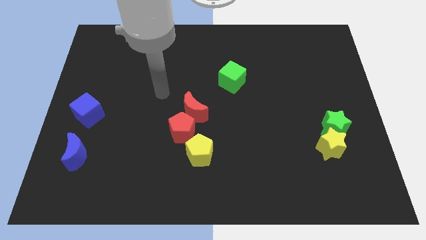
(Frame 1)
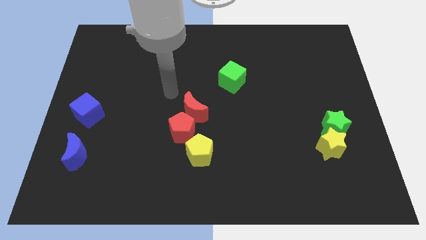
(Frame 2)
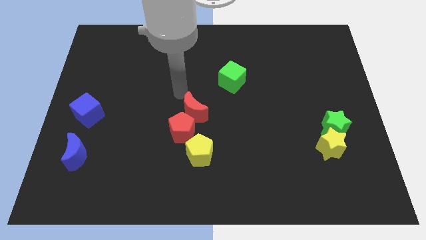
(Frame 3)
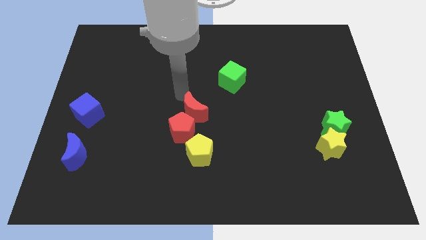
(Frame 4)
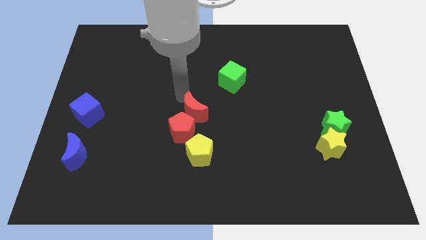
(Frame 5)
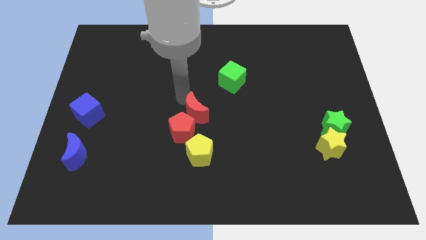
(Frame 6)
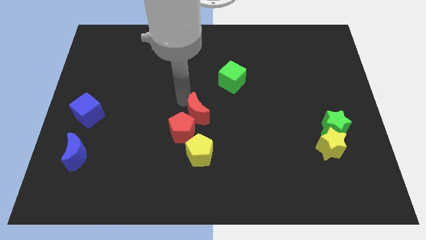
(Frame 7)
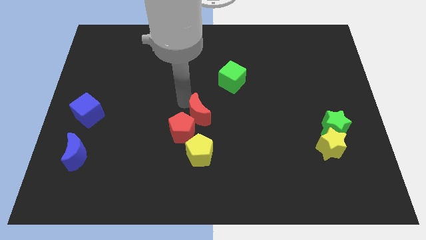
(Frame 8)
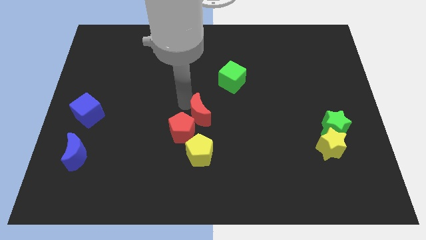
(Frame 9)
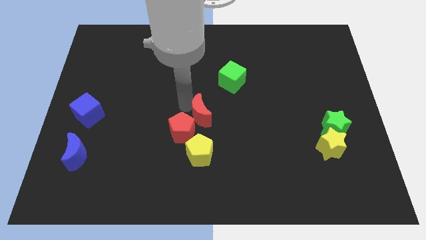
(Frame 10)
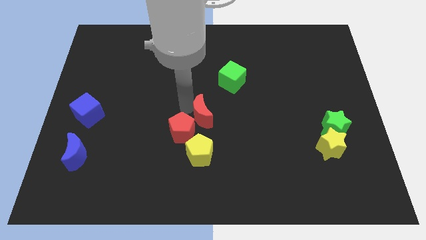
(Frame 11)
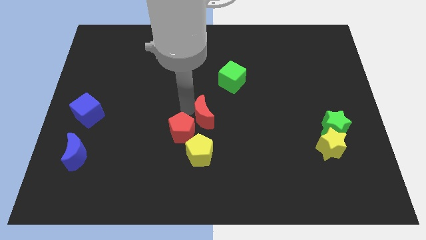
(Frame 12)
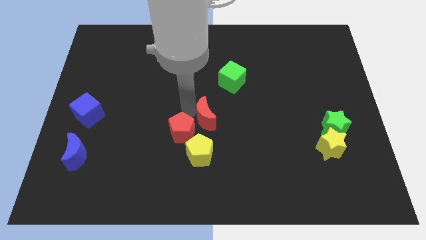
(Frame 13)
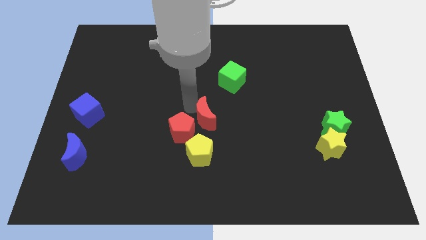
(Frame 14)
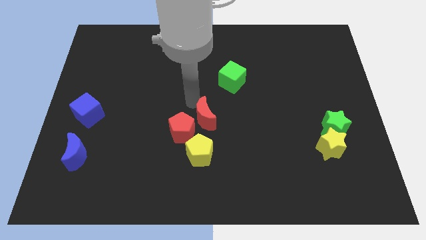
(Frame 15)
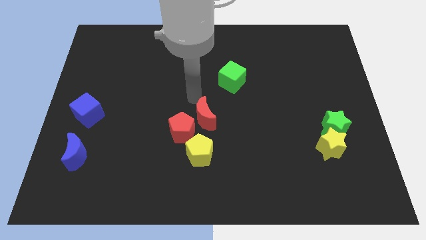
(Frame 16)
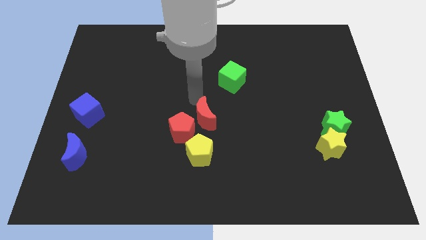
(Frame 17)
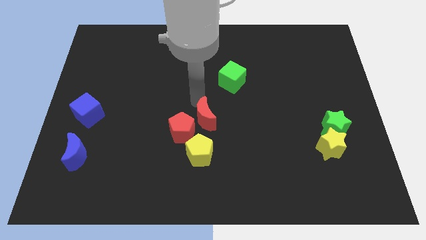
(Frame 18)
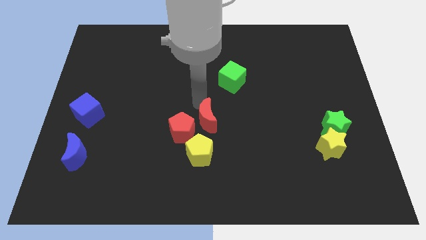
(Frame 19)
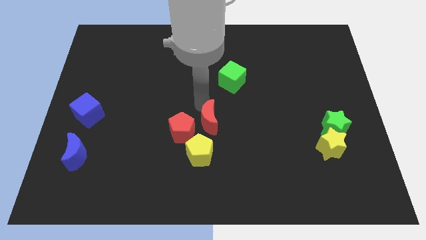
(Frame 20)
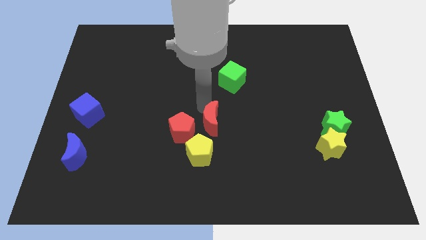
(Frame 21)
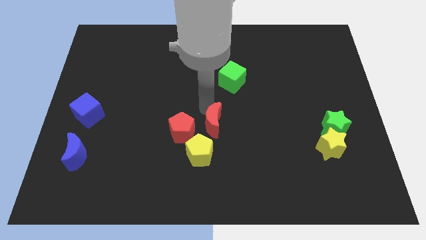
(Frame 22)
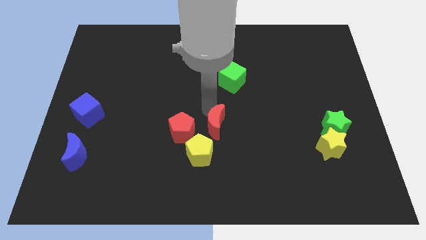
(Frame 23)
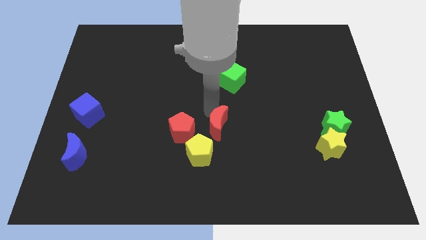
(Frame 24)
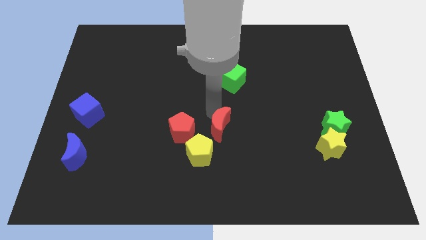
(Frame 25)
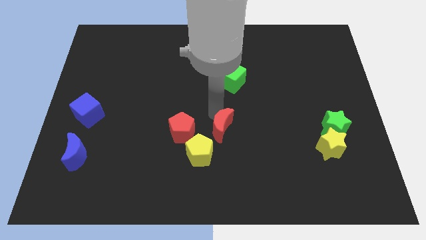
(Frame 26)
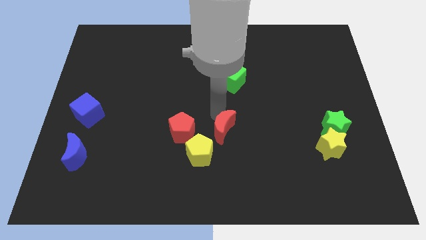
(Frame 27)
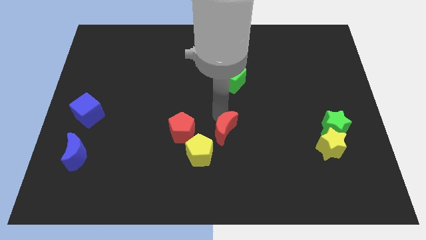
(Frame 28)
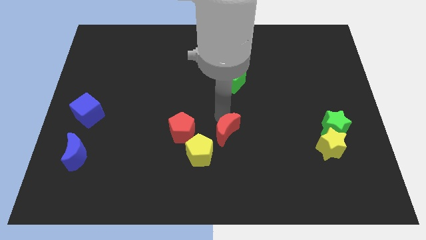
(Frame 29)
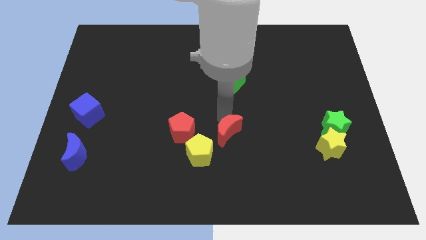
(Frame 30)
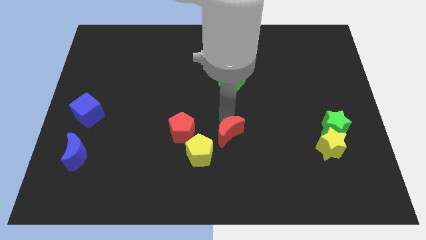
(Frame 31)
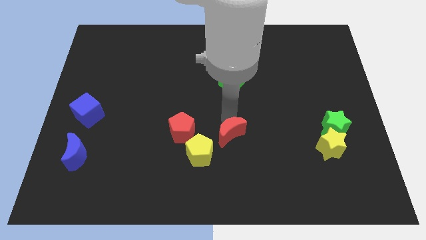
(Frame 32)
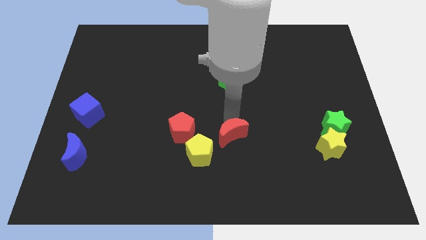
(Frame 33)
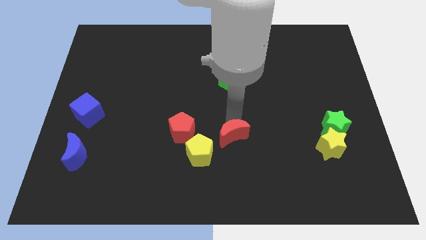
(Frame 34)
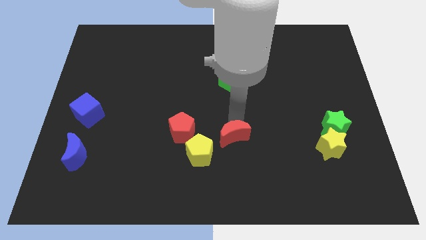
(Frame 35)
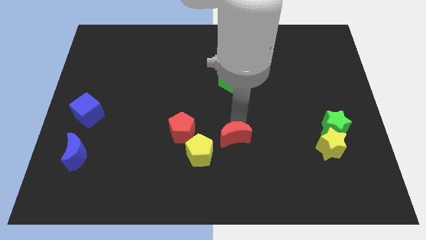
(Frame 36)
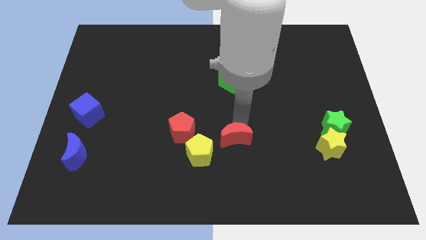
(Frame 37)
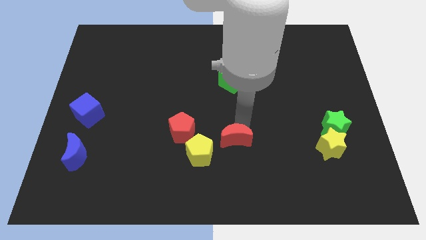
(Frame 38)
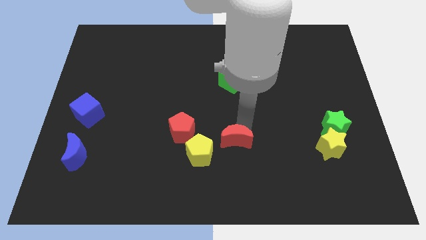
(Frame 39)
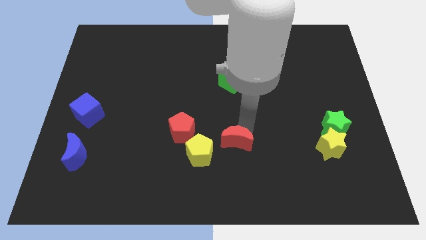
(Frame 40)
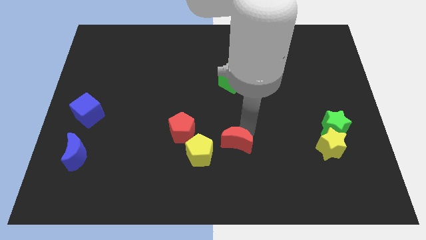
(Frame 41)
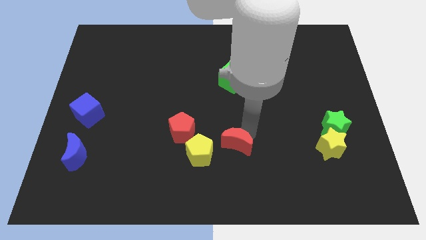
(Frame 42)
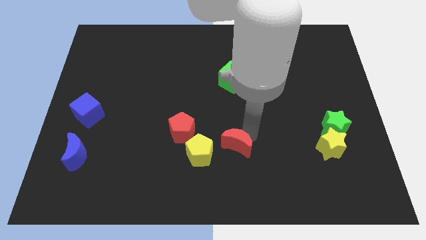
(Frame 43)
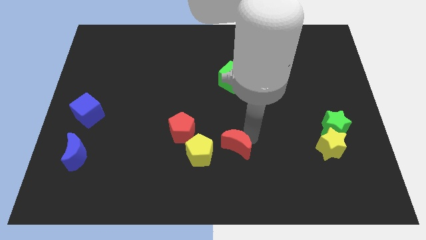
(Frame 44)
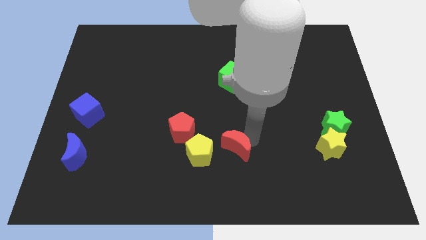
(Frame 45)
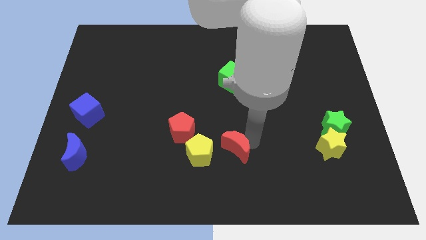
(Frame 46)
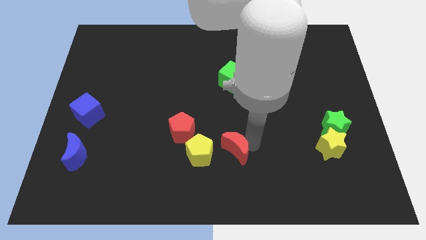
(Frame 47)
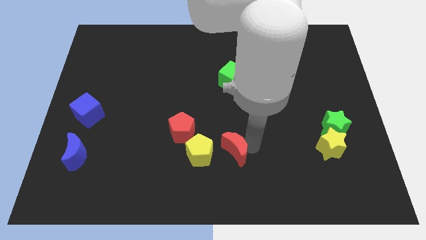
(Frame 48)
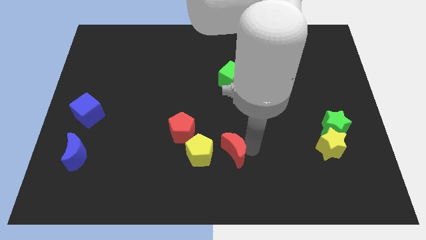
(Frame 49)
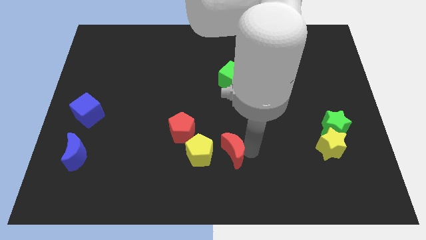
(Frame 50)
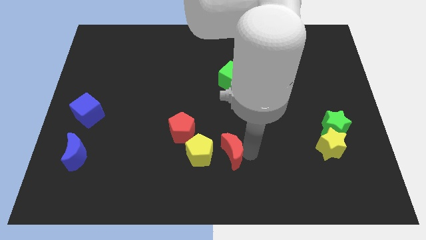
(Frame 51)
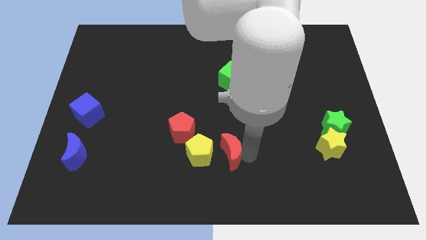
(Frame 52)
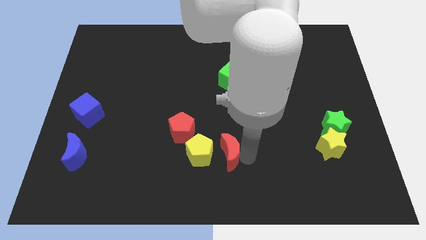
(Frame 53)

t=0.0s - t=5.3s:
put the red moon to the bottom side

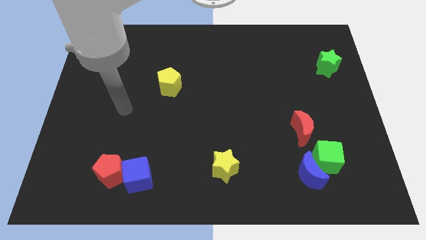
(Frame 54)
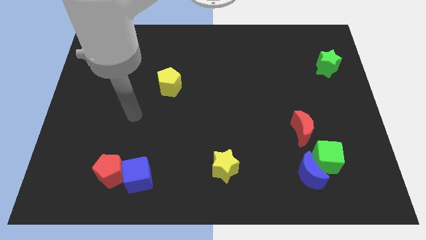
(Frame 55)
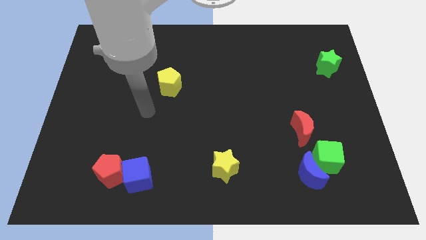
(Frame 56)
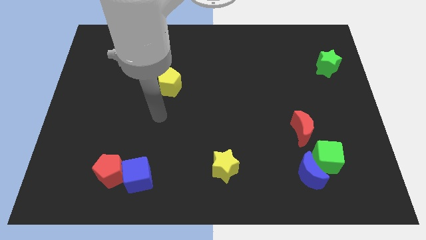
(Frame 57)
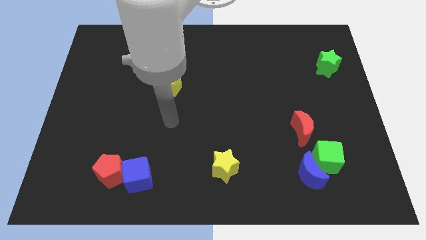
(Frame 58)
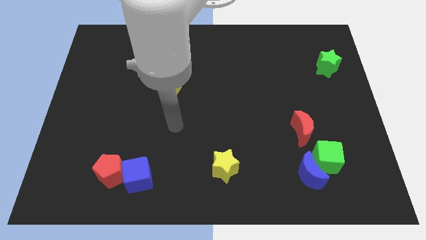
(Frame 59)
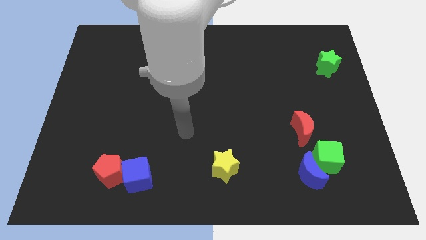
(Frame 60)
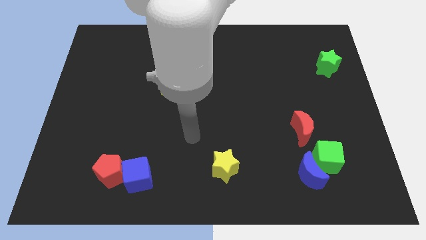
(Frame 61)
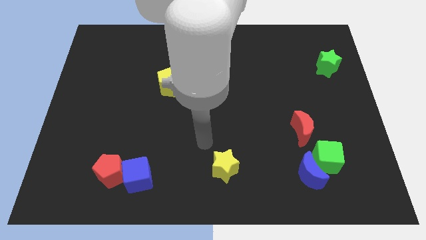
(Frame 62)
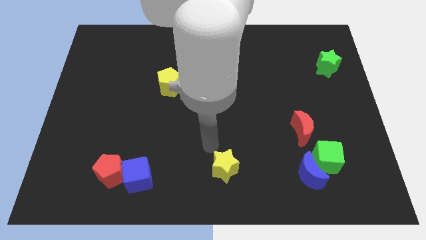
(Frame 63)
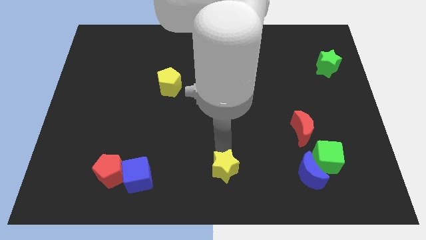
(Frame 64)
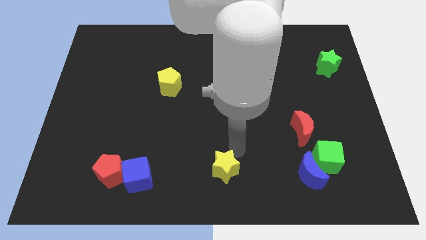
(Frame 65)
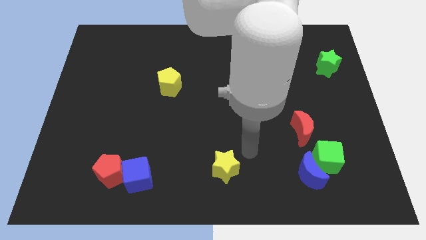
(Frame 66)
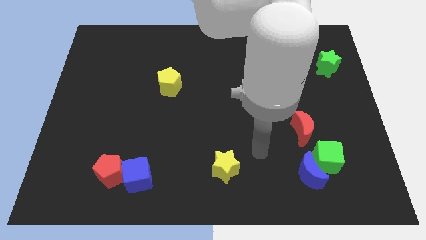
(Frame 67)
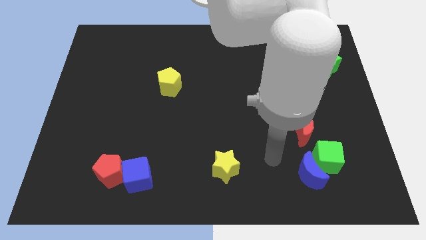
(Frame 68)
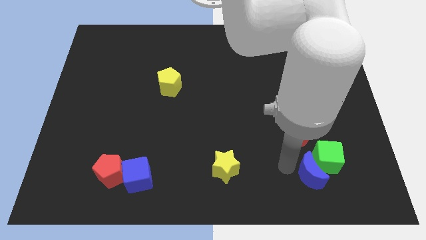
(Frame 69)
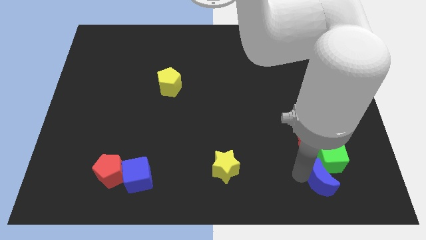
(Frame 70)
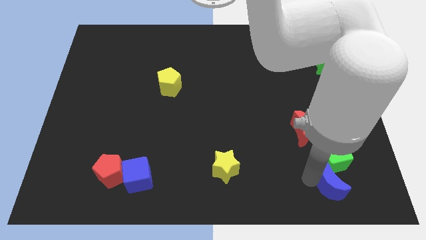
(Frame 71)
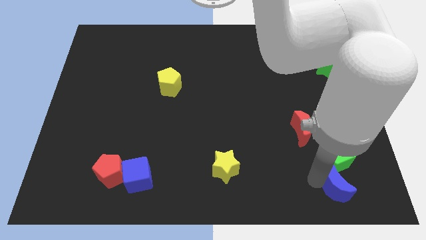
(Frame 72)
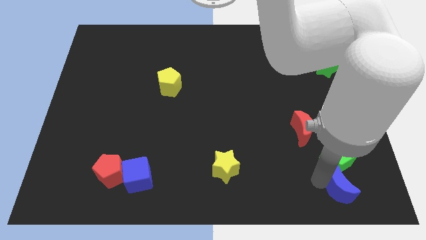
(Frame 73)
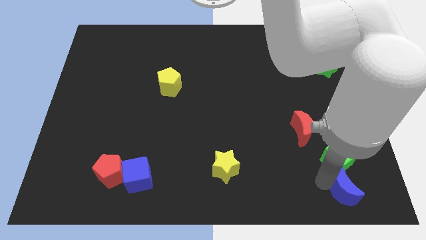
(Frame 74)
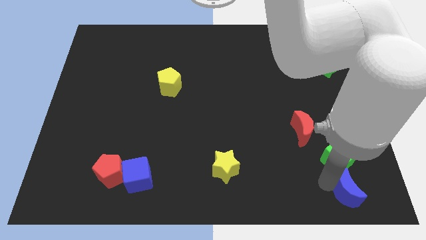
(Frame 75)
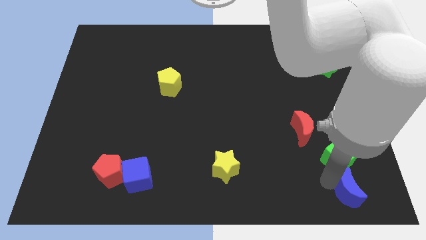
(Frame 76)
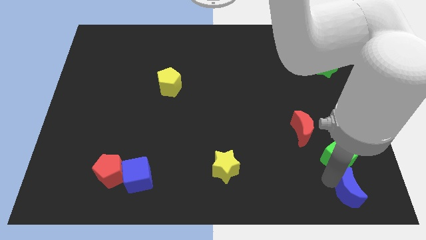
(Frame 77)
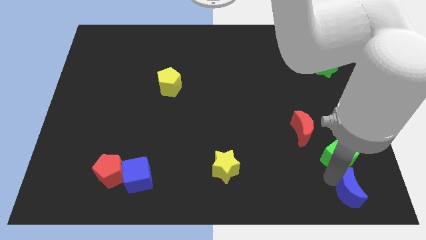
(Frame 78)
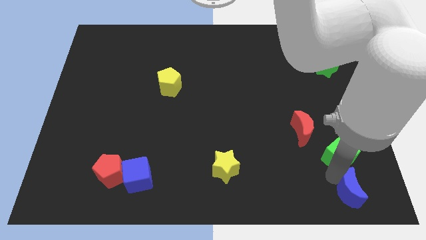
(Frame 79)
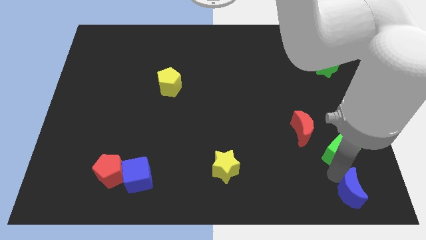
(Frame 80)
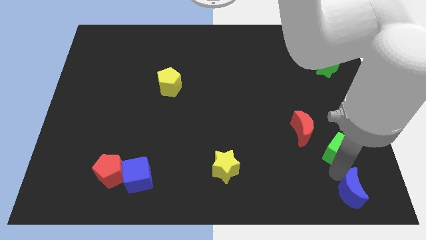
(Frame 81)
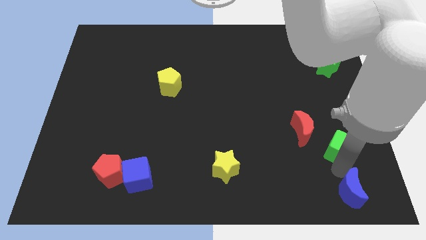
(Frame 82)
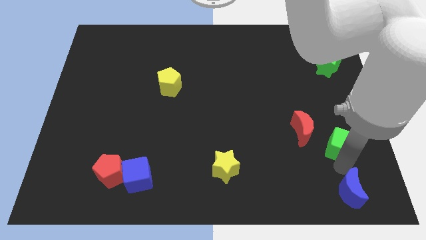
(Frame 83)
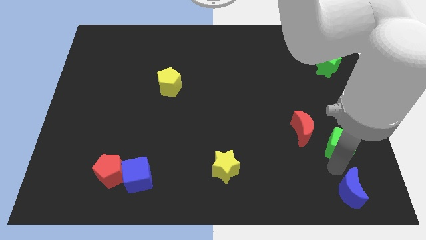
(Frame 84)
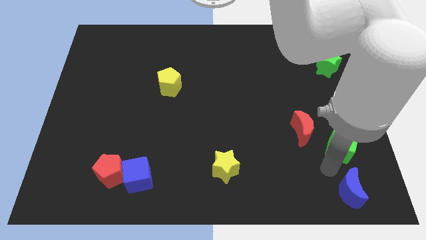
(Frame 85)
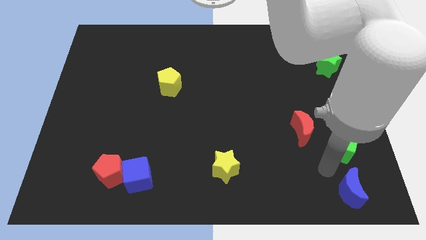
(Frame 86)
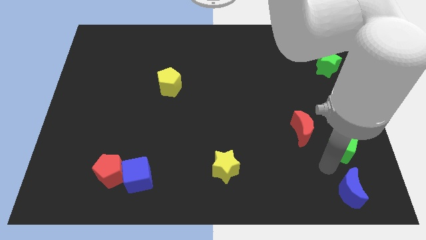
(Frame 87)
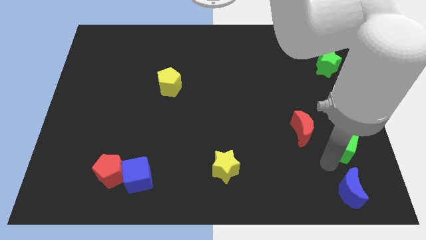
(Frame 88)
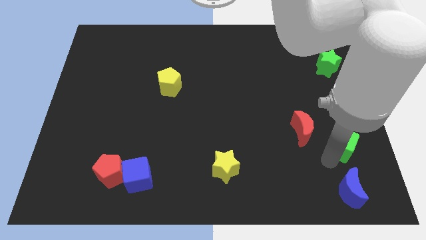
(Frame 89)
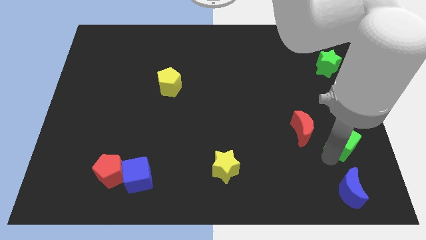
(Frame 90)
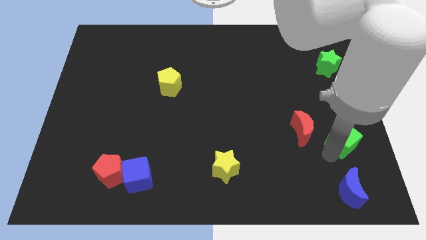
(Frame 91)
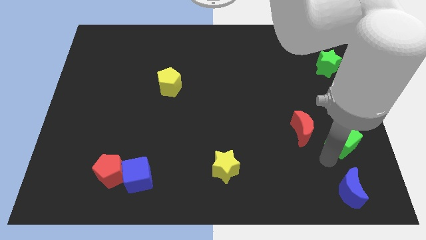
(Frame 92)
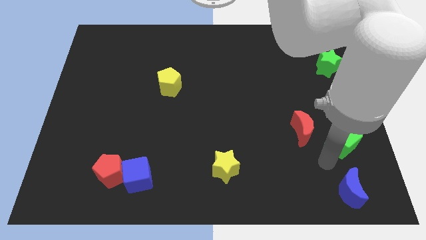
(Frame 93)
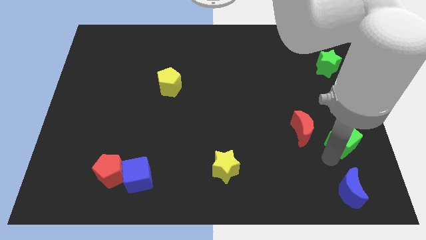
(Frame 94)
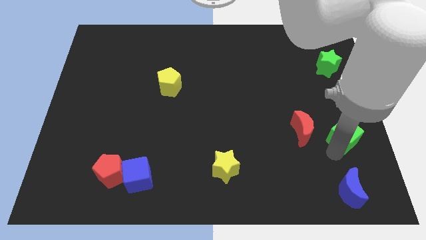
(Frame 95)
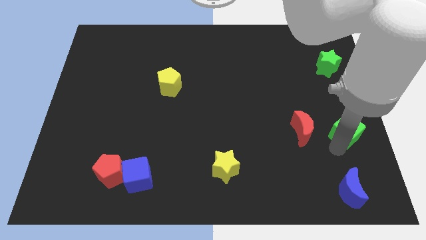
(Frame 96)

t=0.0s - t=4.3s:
put the green cube to the right side
